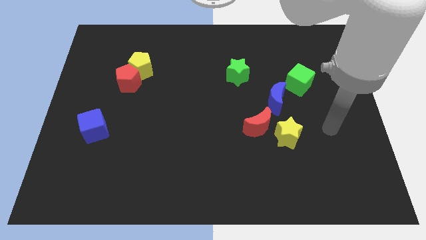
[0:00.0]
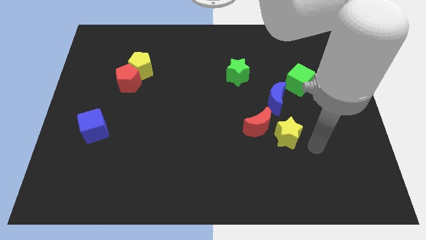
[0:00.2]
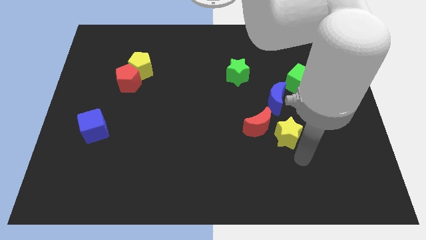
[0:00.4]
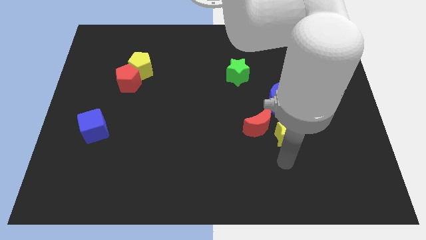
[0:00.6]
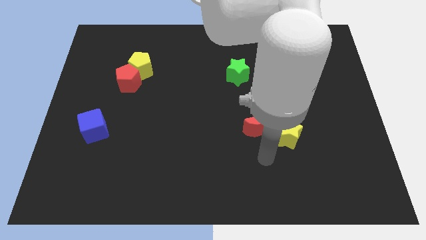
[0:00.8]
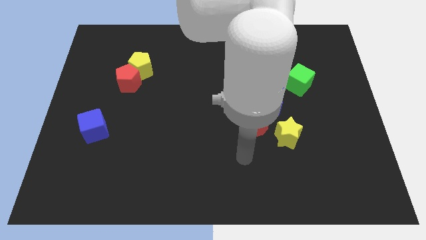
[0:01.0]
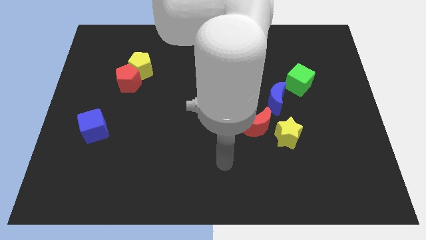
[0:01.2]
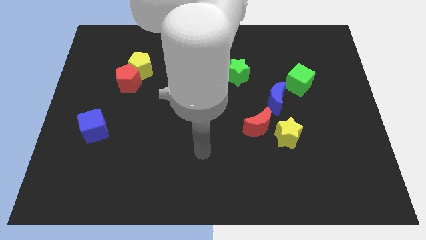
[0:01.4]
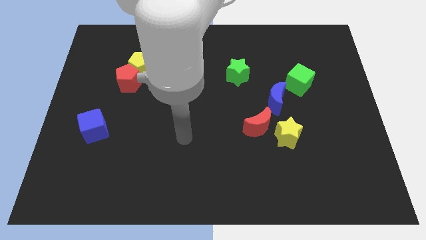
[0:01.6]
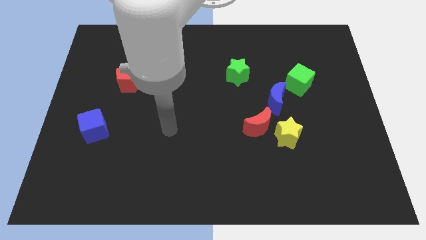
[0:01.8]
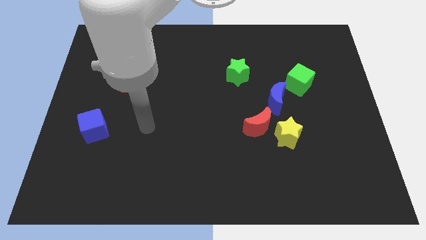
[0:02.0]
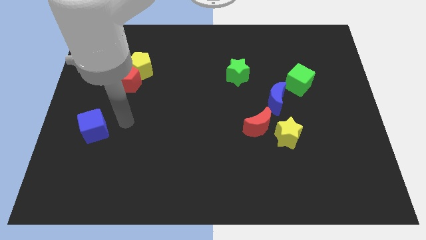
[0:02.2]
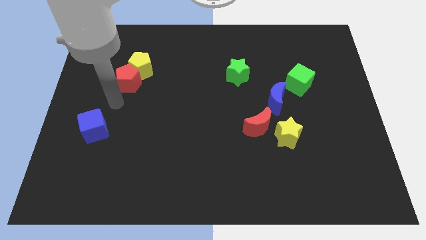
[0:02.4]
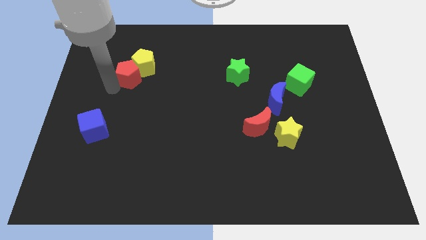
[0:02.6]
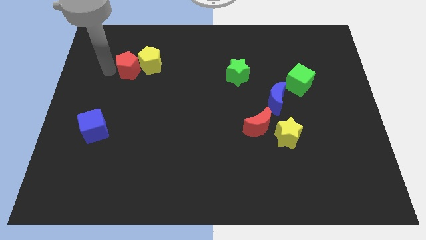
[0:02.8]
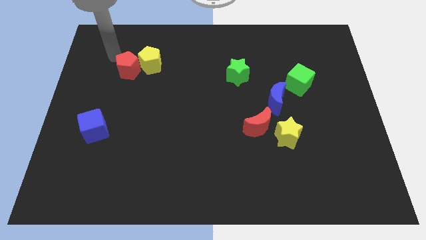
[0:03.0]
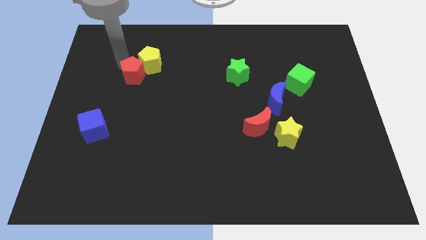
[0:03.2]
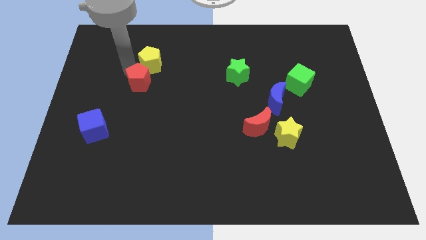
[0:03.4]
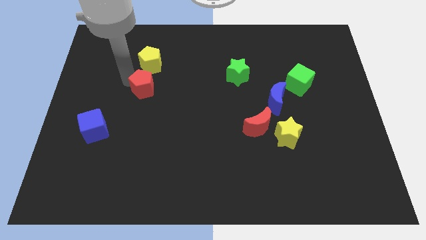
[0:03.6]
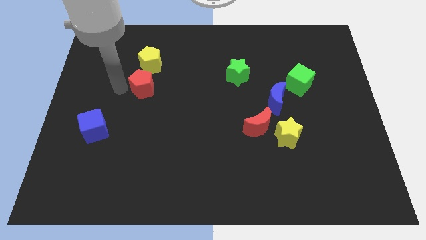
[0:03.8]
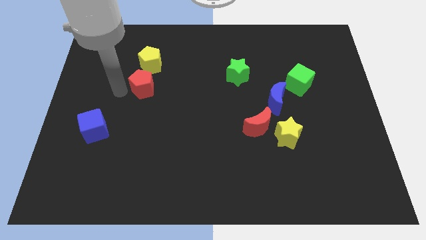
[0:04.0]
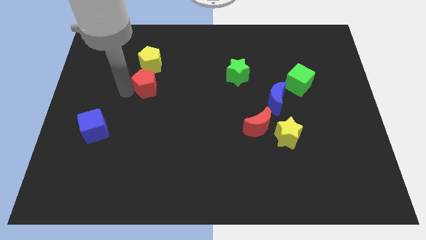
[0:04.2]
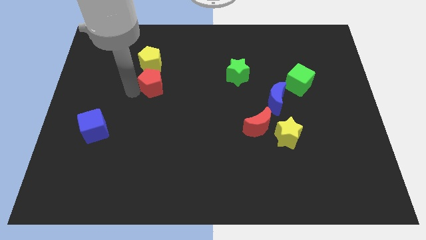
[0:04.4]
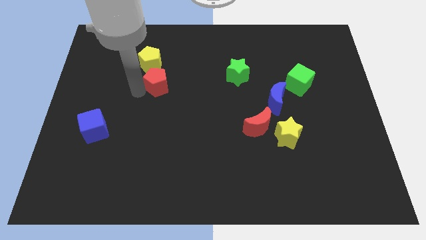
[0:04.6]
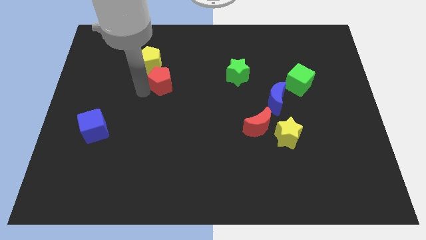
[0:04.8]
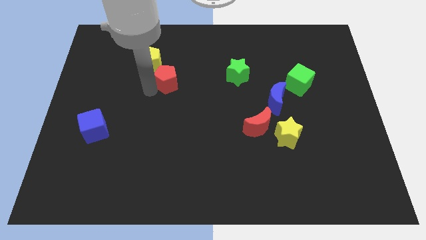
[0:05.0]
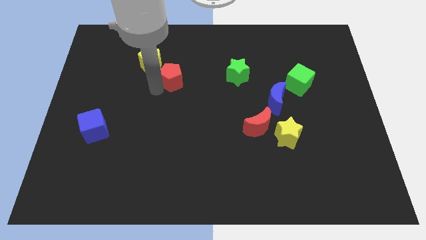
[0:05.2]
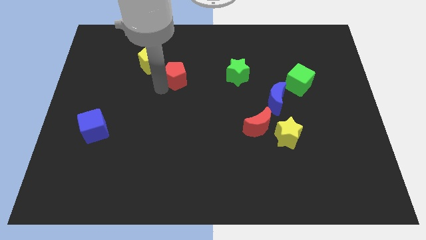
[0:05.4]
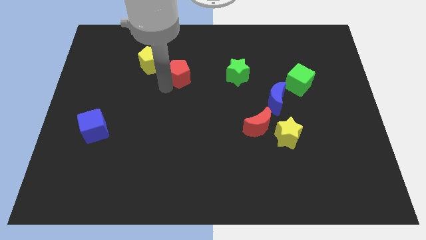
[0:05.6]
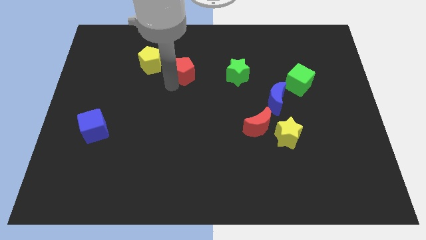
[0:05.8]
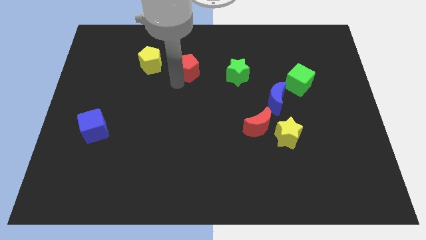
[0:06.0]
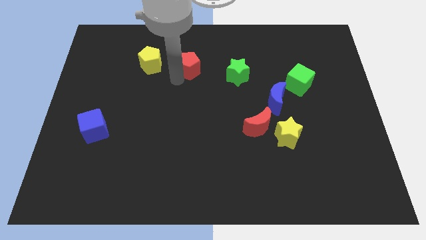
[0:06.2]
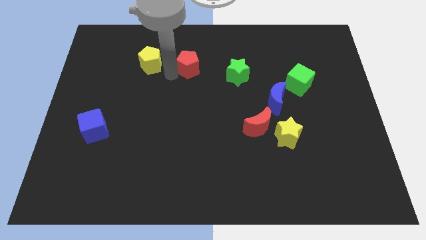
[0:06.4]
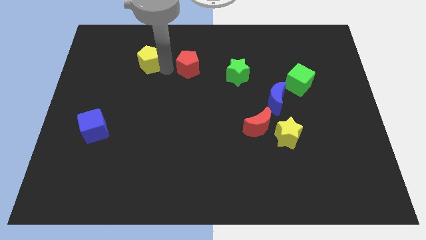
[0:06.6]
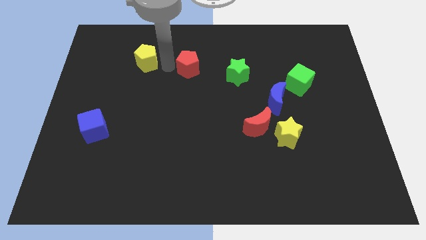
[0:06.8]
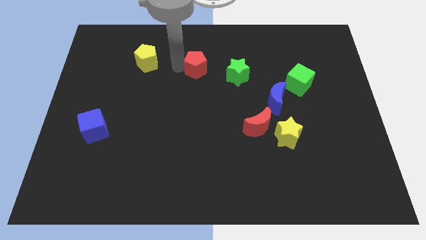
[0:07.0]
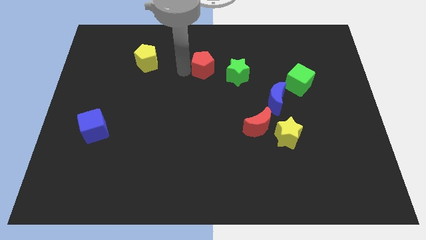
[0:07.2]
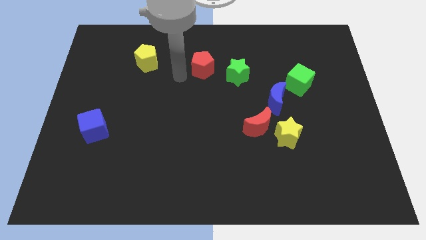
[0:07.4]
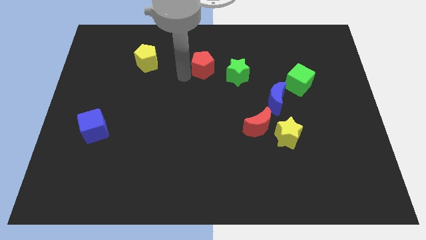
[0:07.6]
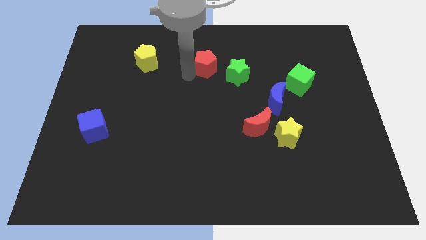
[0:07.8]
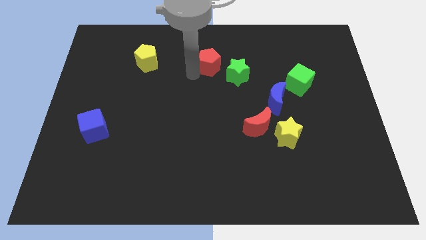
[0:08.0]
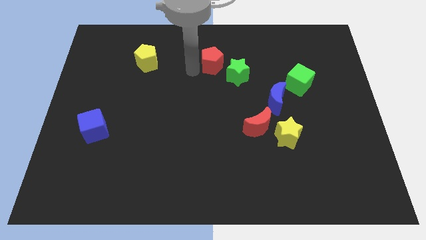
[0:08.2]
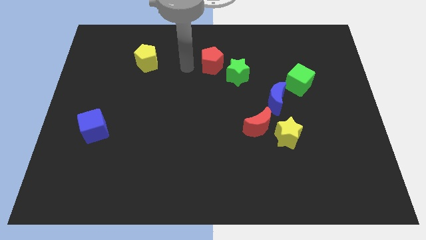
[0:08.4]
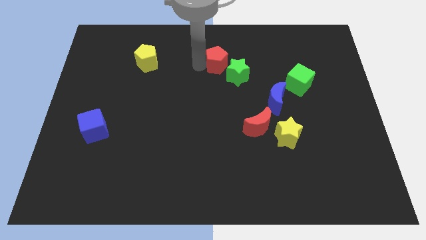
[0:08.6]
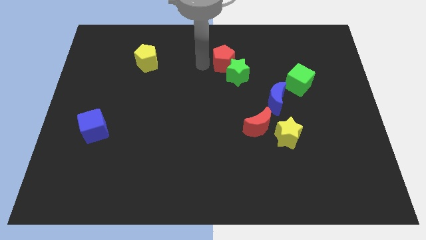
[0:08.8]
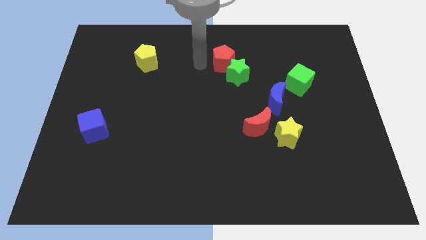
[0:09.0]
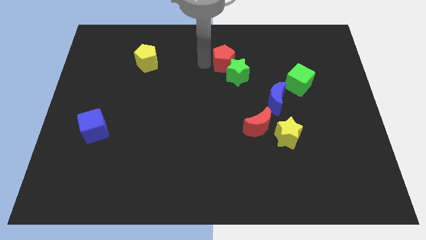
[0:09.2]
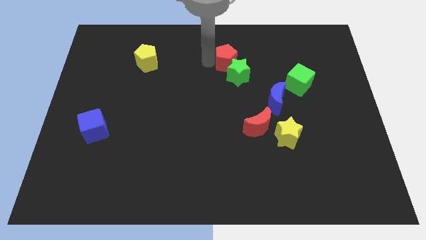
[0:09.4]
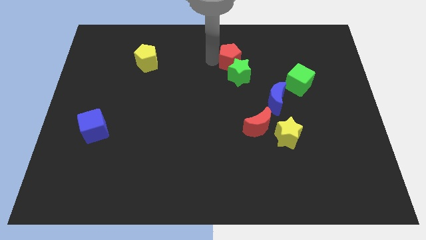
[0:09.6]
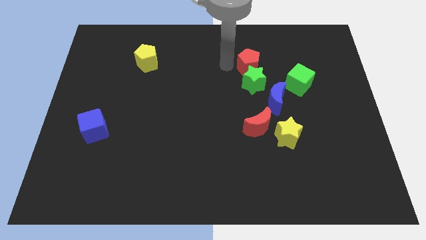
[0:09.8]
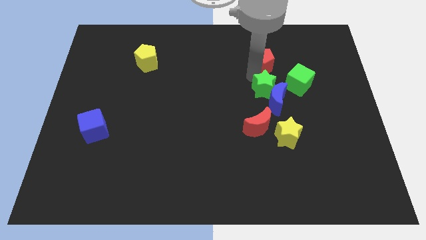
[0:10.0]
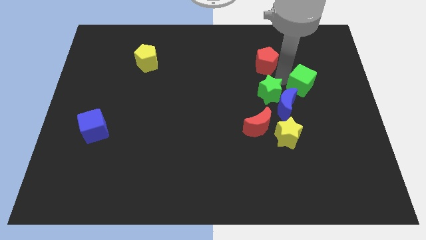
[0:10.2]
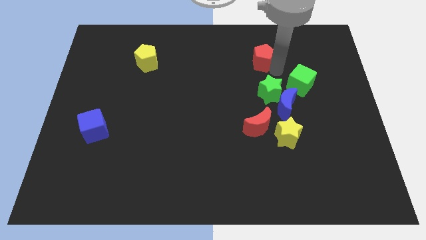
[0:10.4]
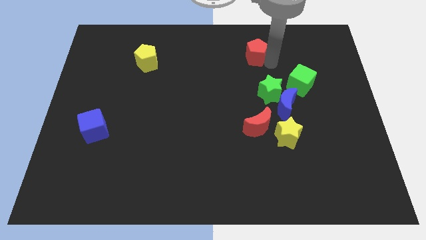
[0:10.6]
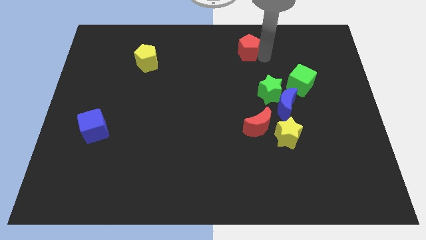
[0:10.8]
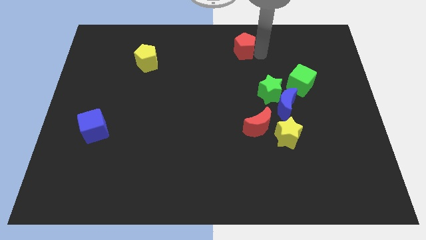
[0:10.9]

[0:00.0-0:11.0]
push the red pentagon to the towards your base

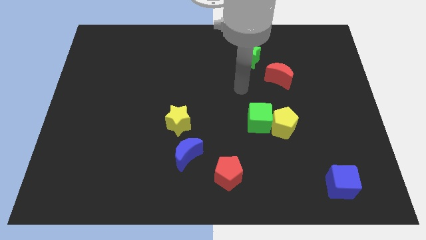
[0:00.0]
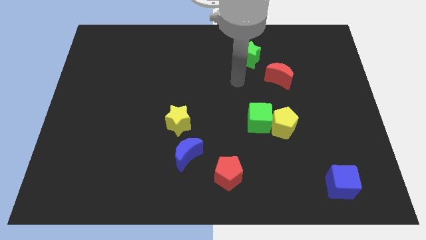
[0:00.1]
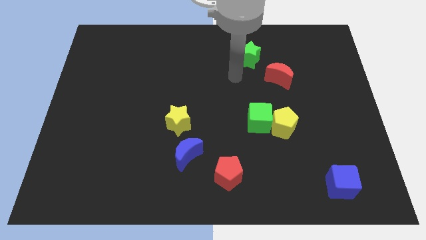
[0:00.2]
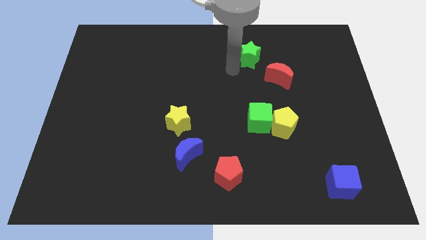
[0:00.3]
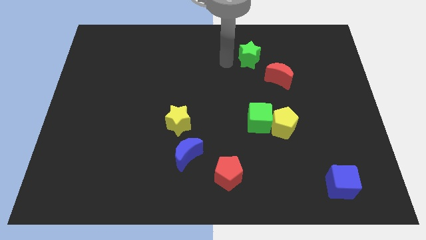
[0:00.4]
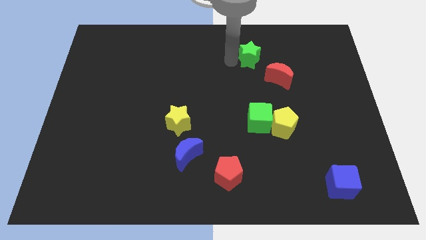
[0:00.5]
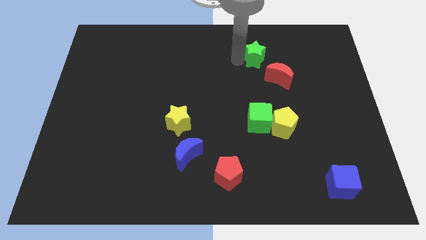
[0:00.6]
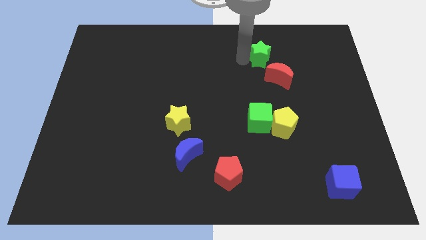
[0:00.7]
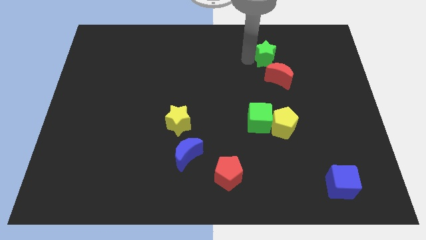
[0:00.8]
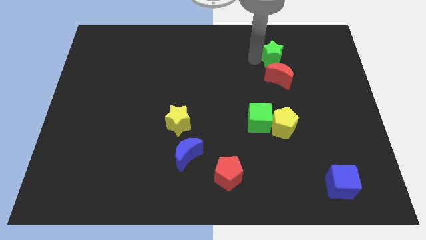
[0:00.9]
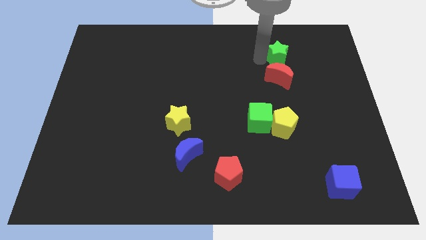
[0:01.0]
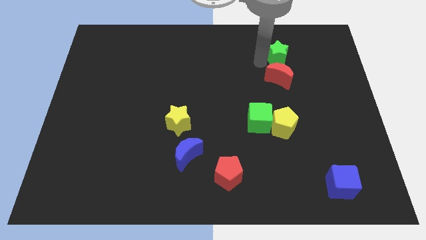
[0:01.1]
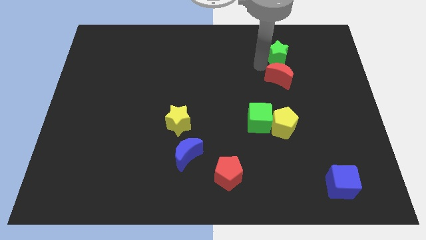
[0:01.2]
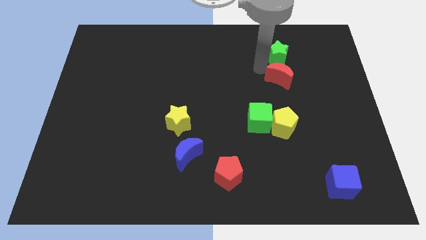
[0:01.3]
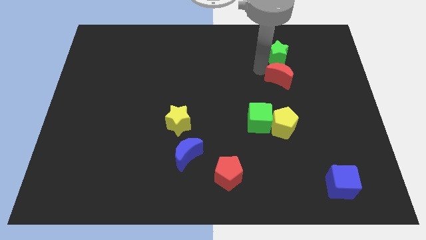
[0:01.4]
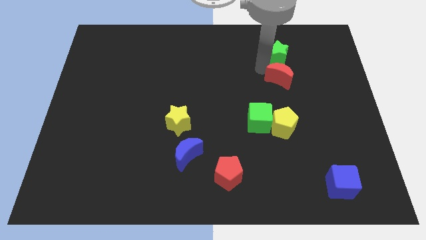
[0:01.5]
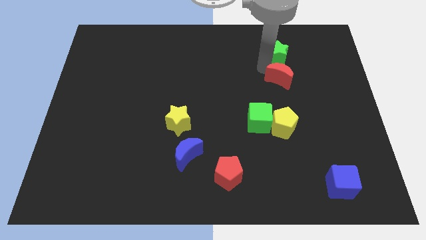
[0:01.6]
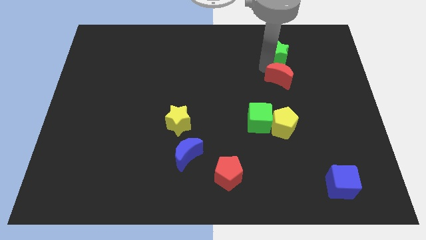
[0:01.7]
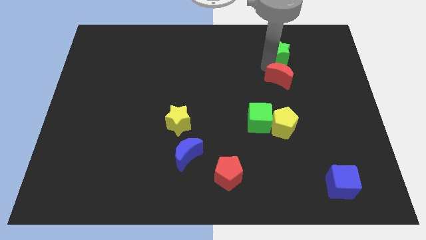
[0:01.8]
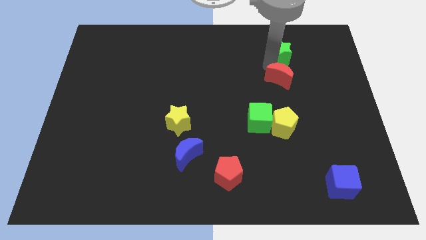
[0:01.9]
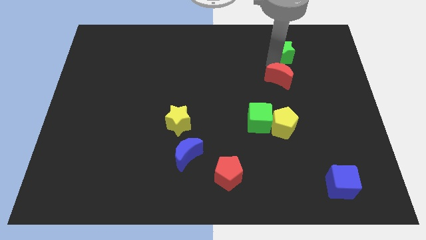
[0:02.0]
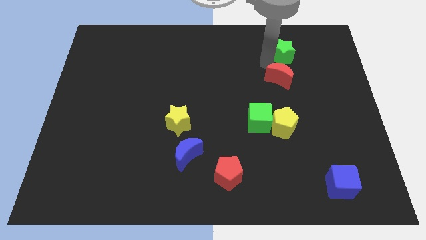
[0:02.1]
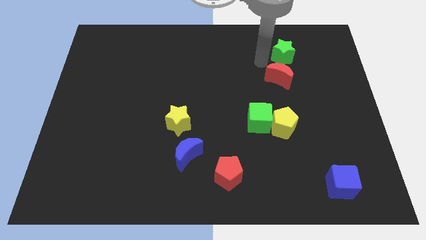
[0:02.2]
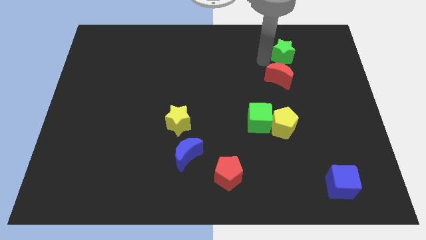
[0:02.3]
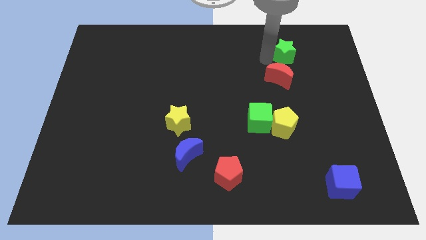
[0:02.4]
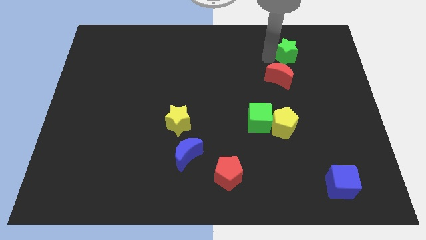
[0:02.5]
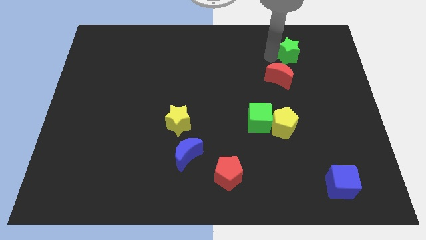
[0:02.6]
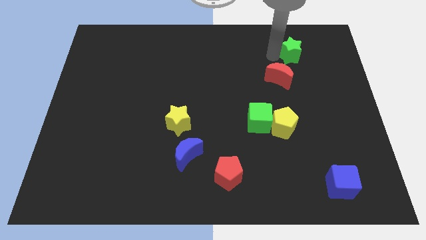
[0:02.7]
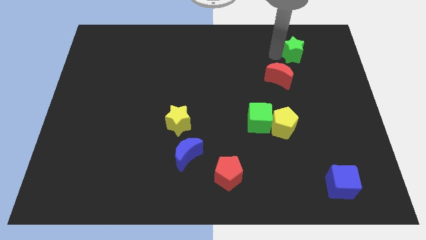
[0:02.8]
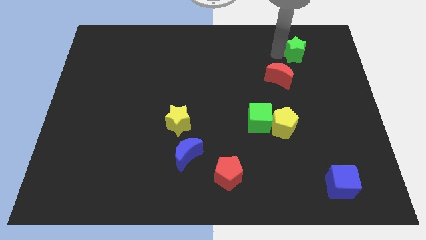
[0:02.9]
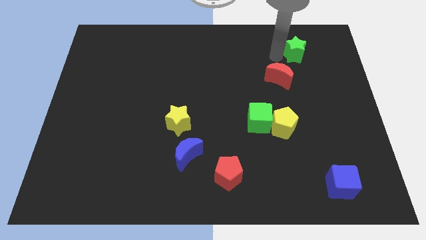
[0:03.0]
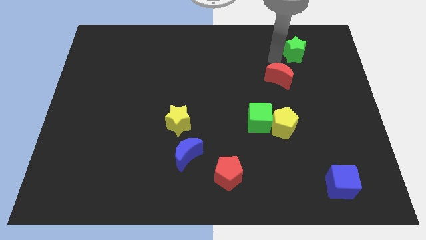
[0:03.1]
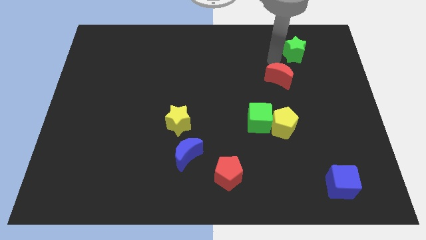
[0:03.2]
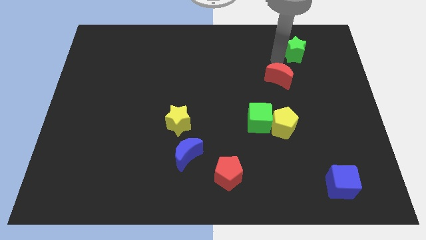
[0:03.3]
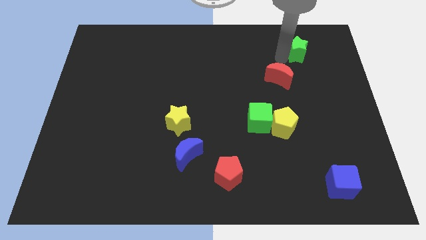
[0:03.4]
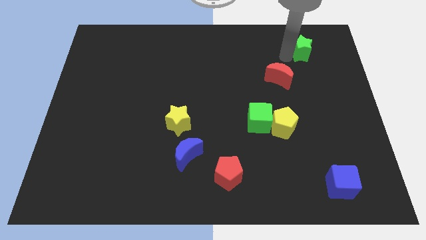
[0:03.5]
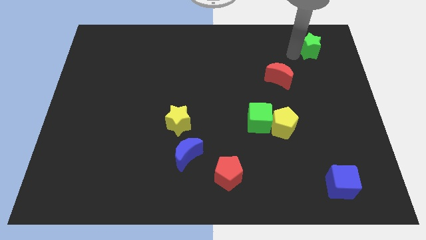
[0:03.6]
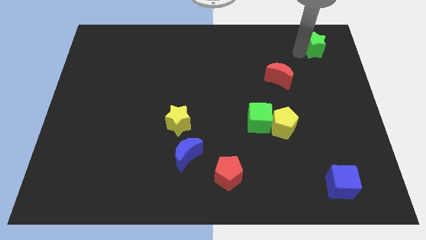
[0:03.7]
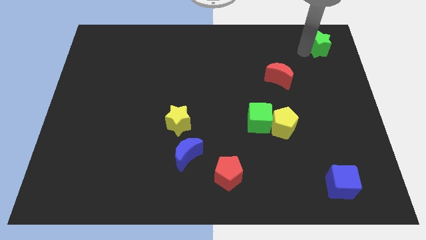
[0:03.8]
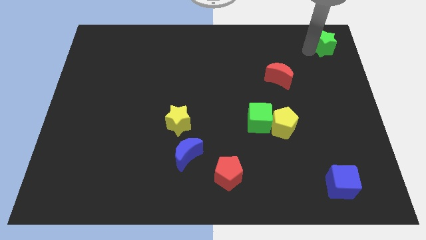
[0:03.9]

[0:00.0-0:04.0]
slide the green star to the top right of the board
